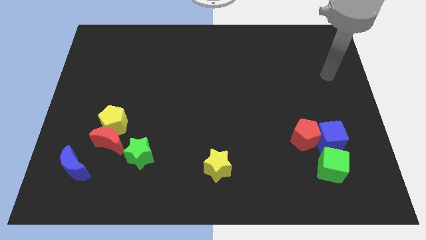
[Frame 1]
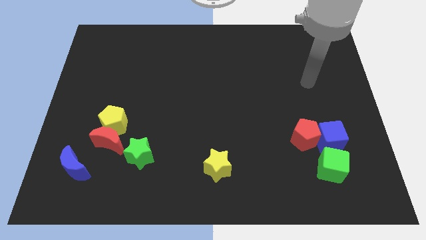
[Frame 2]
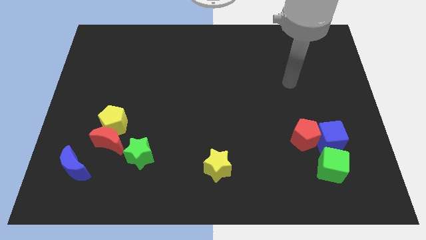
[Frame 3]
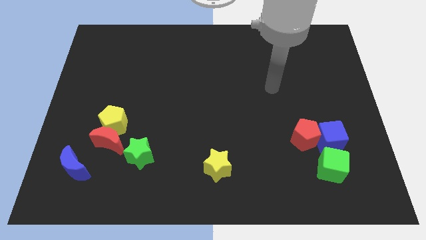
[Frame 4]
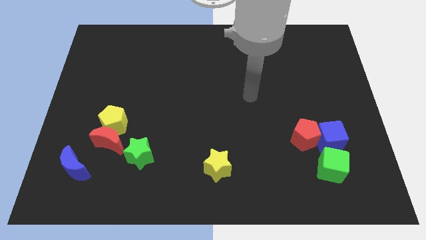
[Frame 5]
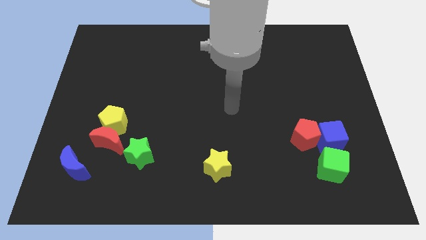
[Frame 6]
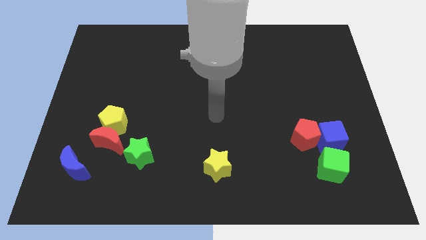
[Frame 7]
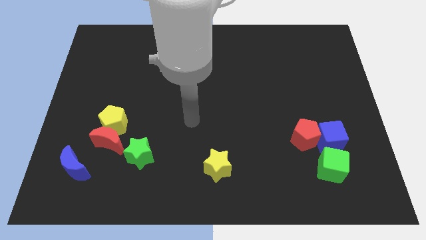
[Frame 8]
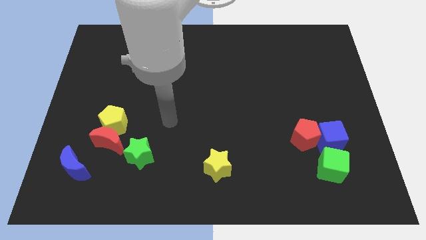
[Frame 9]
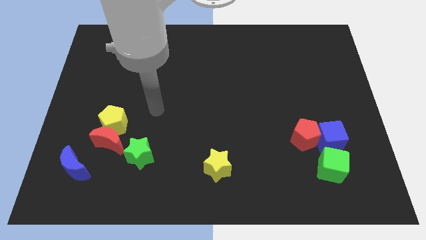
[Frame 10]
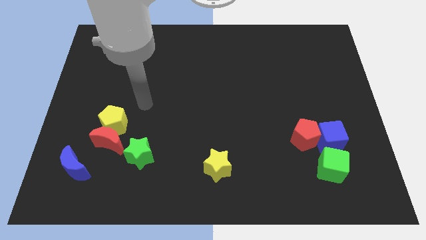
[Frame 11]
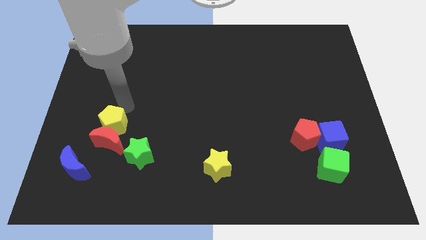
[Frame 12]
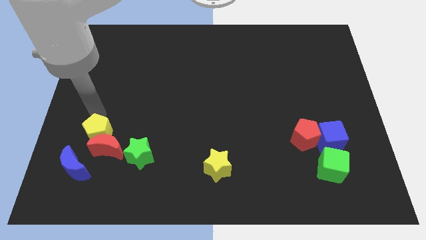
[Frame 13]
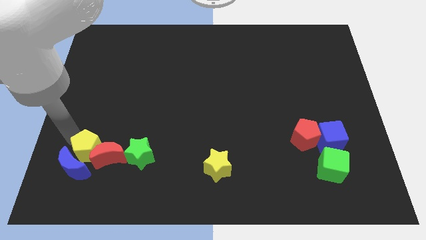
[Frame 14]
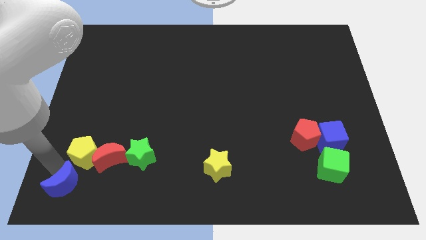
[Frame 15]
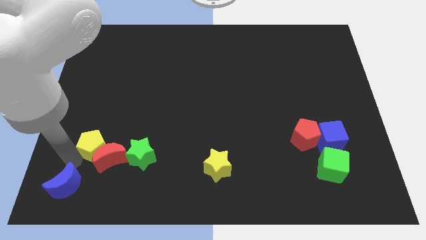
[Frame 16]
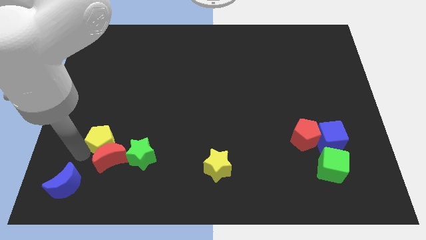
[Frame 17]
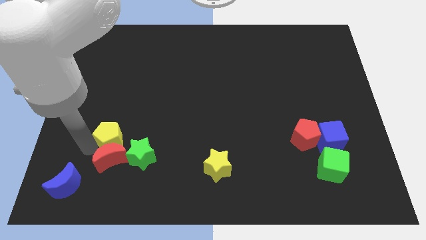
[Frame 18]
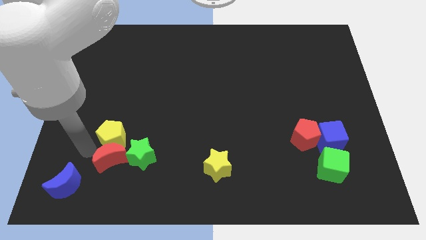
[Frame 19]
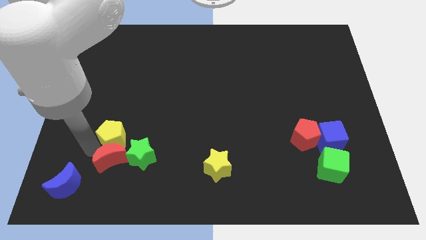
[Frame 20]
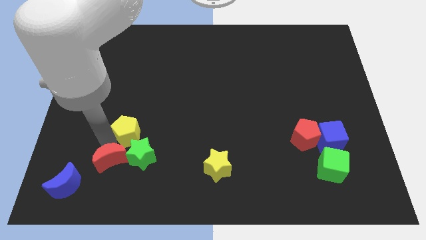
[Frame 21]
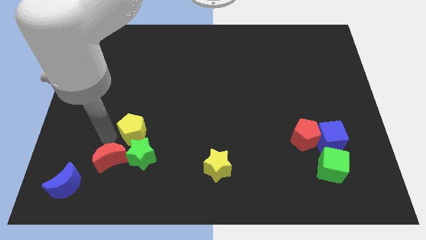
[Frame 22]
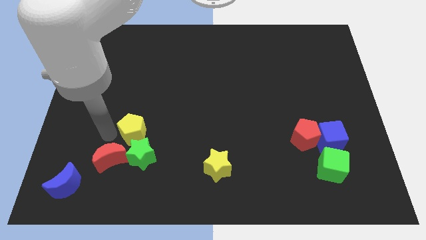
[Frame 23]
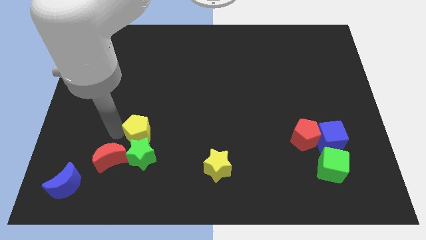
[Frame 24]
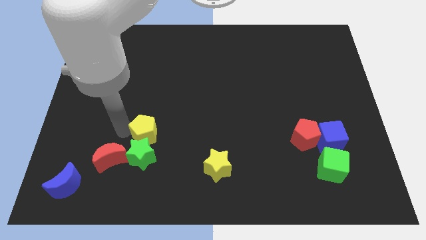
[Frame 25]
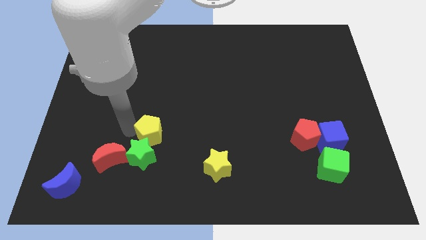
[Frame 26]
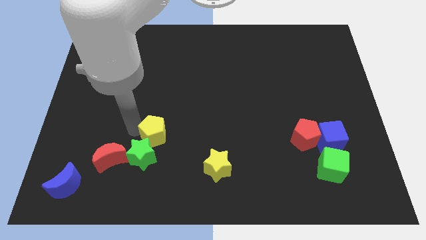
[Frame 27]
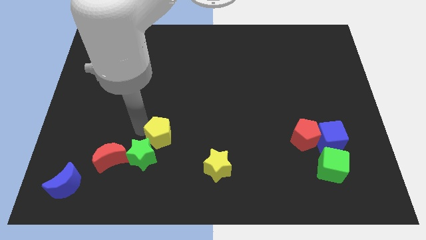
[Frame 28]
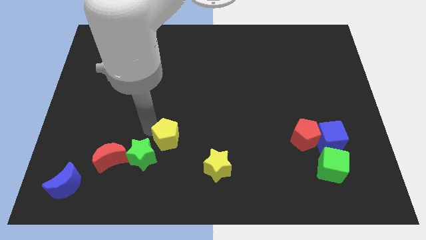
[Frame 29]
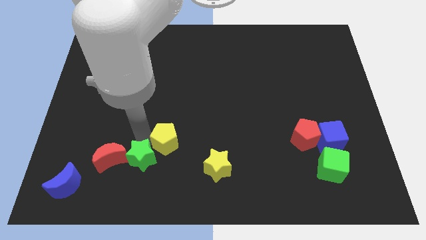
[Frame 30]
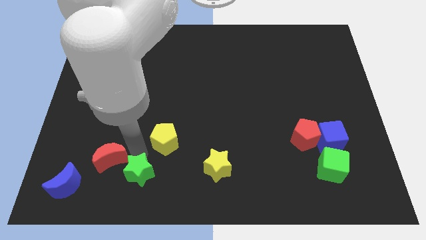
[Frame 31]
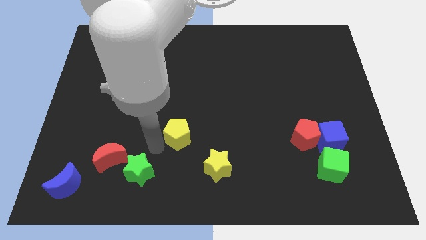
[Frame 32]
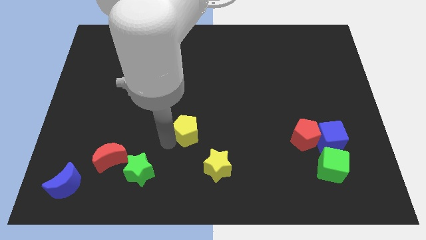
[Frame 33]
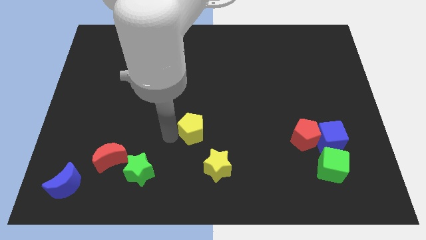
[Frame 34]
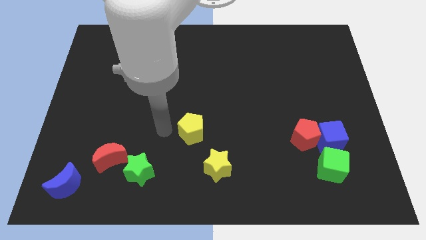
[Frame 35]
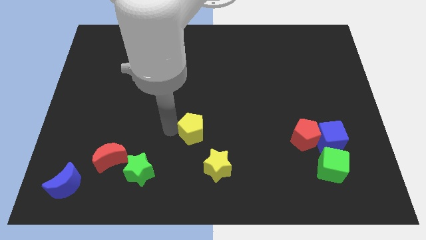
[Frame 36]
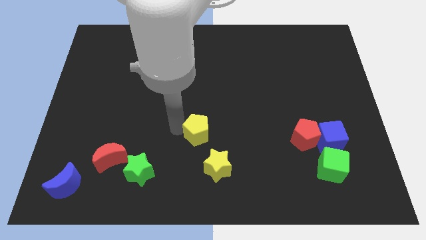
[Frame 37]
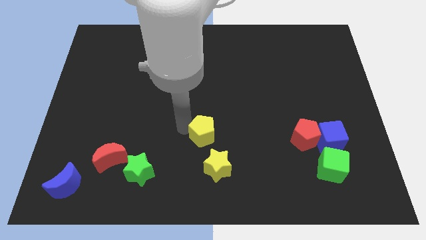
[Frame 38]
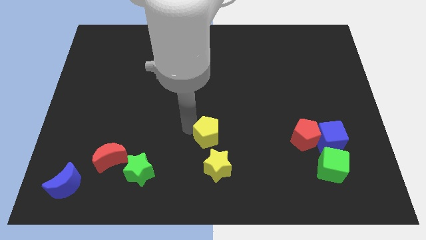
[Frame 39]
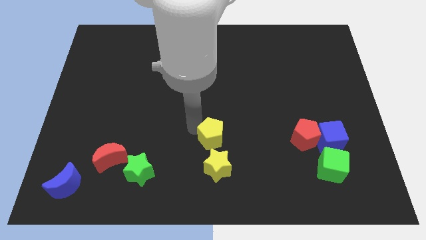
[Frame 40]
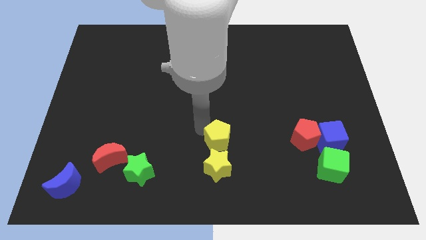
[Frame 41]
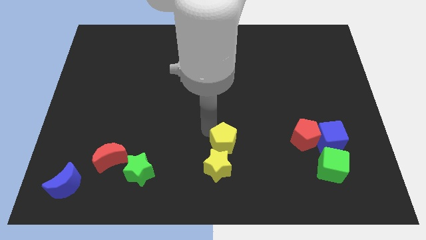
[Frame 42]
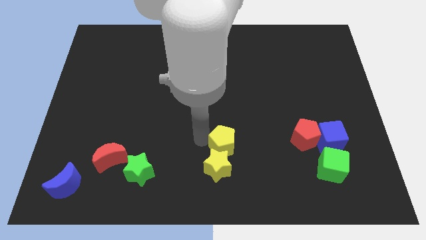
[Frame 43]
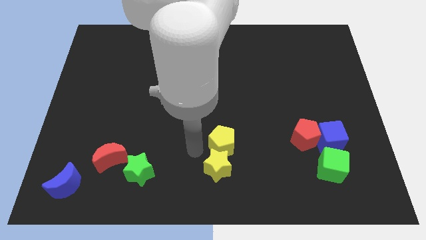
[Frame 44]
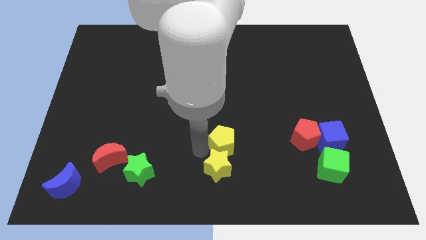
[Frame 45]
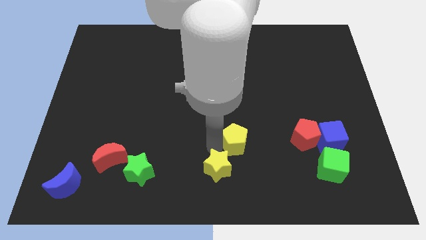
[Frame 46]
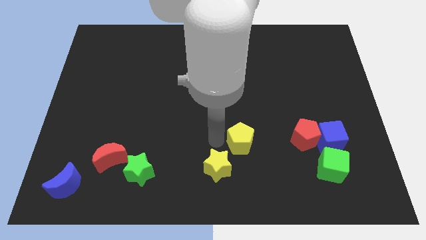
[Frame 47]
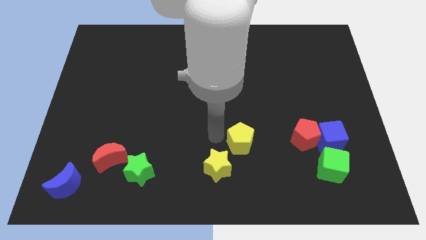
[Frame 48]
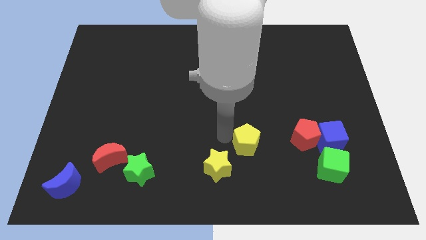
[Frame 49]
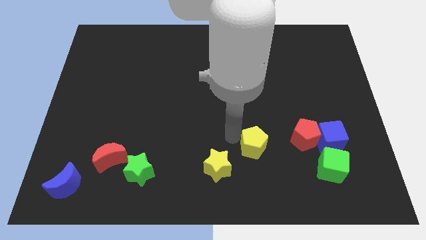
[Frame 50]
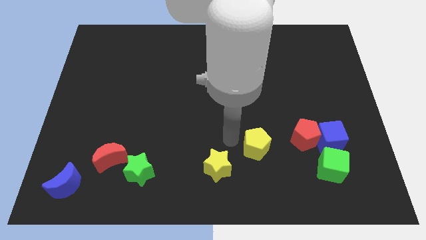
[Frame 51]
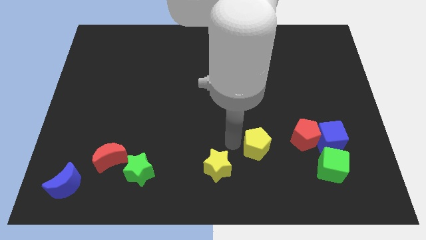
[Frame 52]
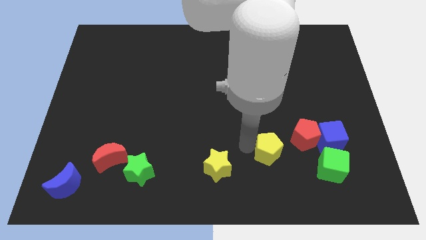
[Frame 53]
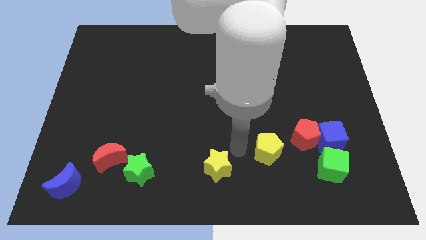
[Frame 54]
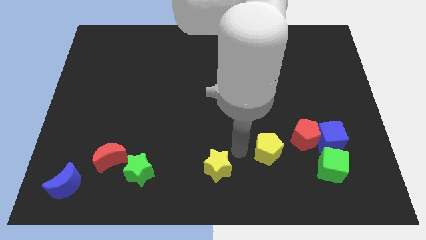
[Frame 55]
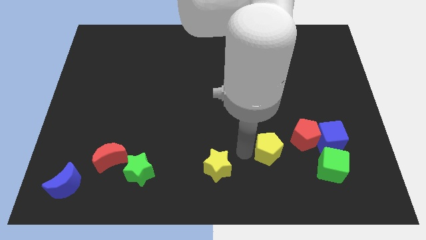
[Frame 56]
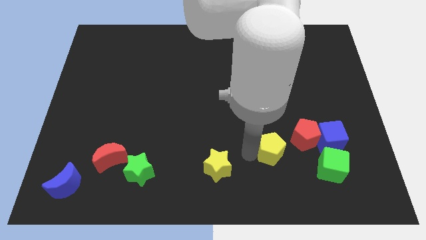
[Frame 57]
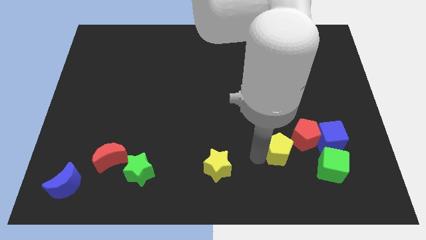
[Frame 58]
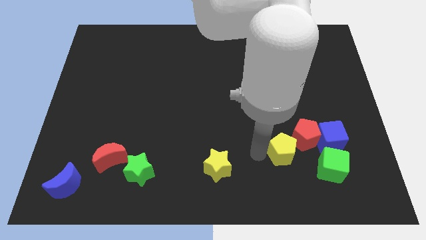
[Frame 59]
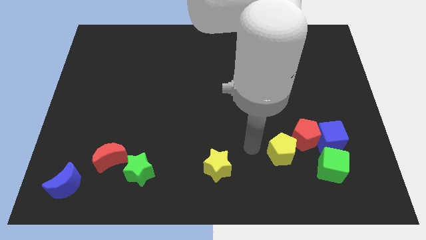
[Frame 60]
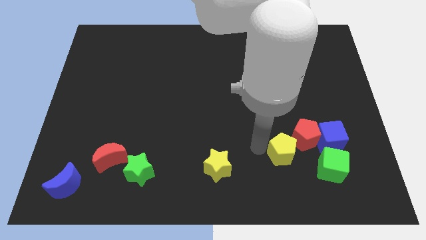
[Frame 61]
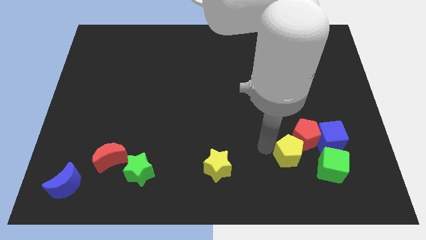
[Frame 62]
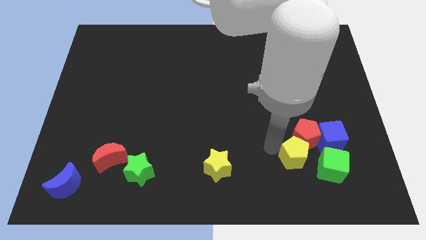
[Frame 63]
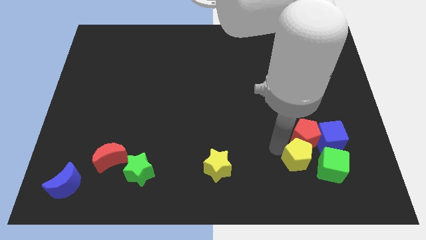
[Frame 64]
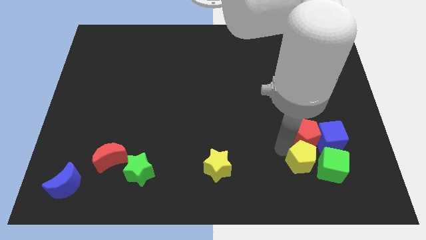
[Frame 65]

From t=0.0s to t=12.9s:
move the yellow pentagon close to the green cube
